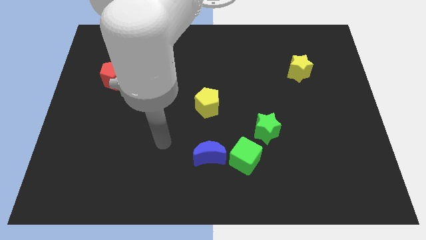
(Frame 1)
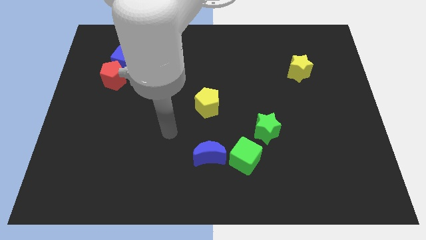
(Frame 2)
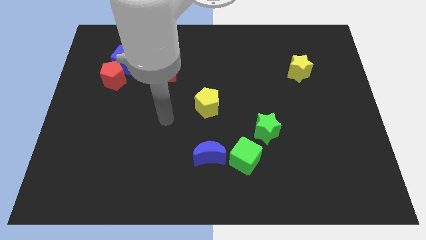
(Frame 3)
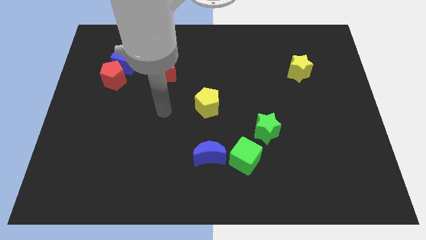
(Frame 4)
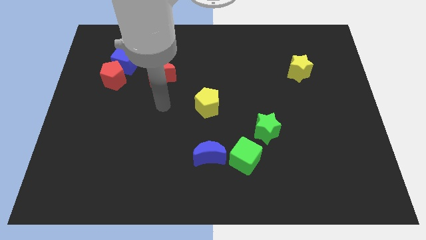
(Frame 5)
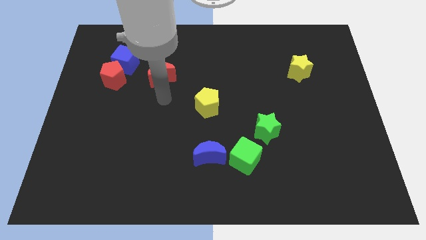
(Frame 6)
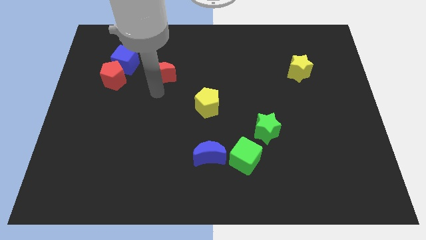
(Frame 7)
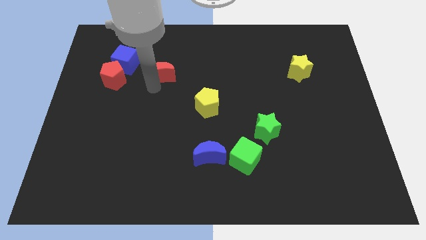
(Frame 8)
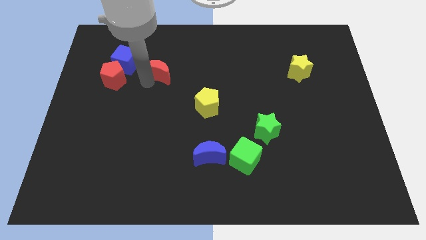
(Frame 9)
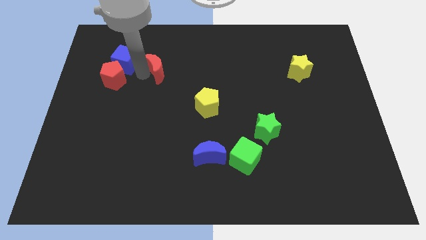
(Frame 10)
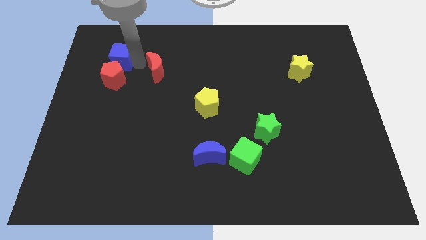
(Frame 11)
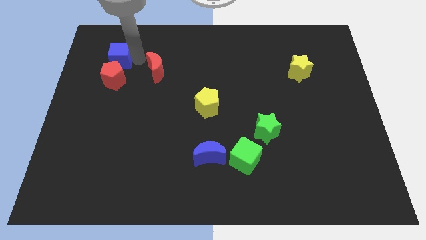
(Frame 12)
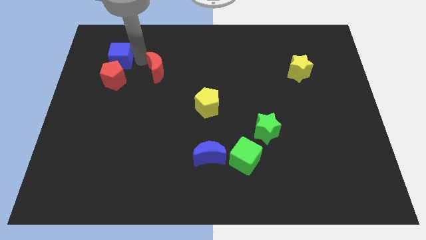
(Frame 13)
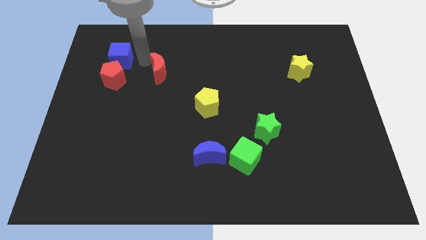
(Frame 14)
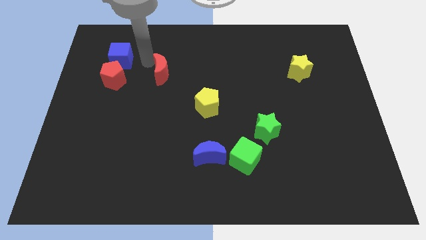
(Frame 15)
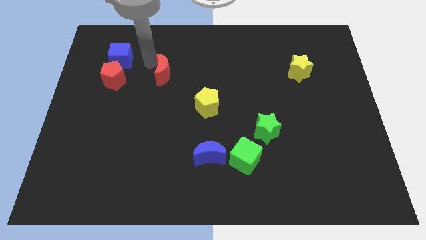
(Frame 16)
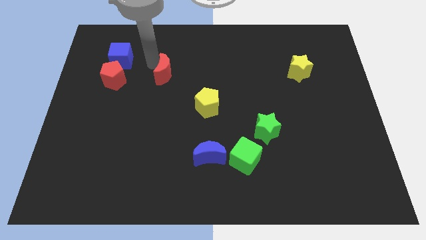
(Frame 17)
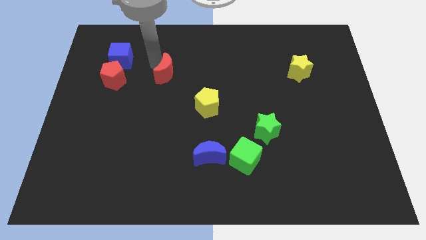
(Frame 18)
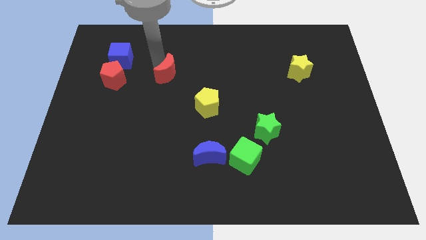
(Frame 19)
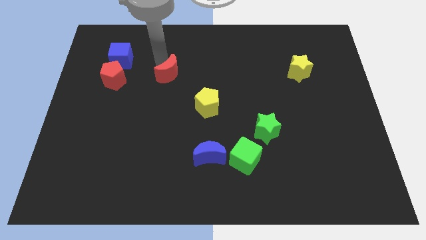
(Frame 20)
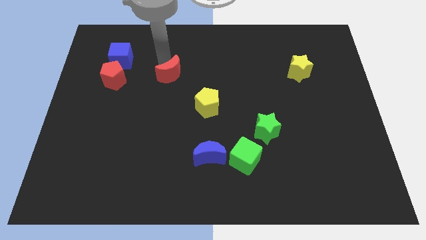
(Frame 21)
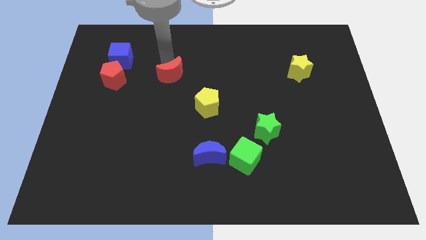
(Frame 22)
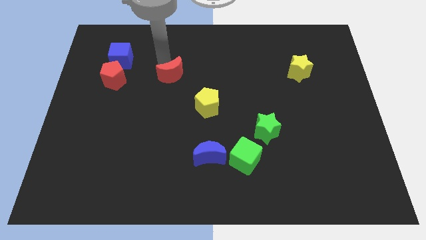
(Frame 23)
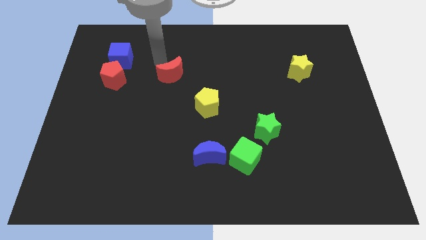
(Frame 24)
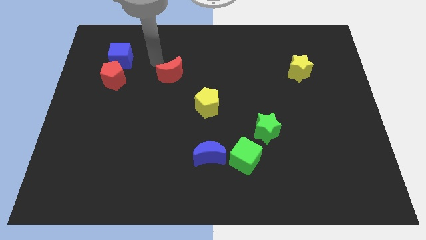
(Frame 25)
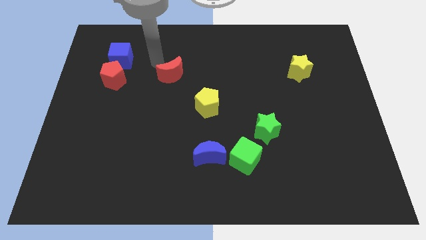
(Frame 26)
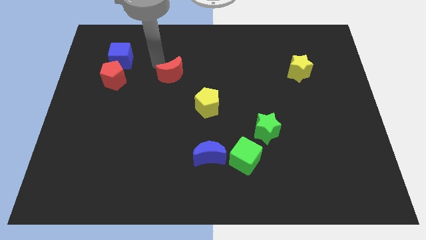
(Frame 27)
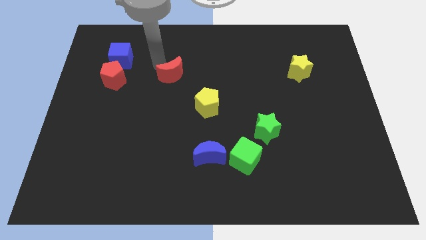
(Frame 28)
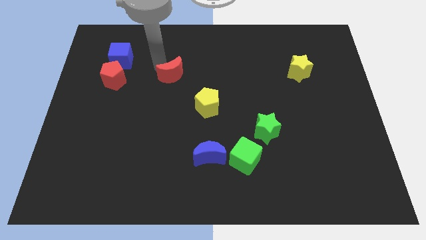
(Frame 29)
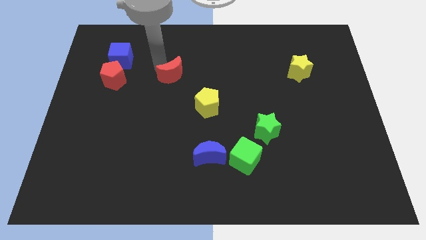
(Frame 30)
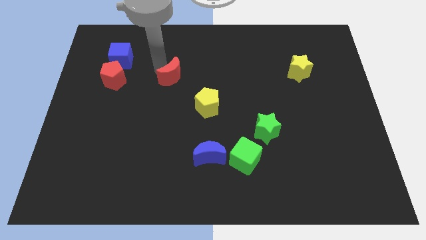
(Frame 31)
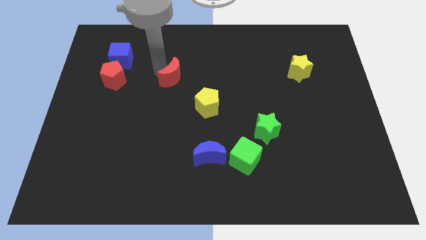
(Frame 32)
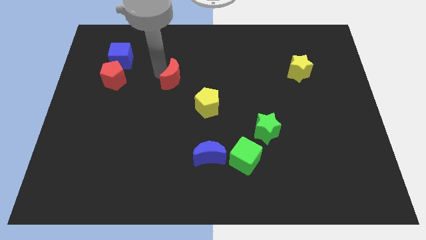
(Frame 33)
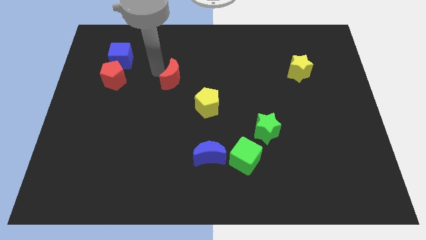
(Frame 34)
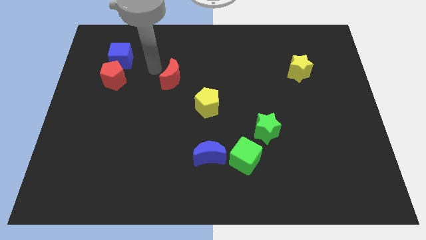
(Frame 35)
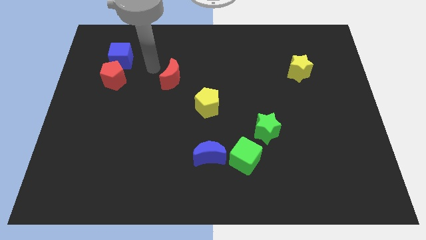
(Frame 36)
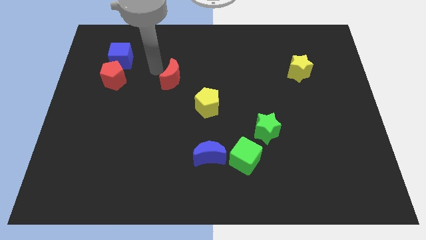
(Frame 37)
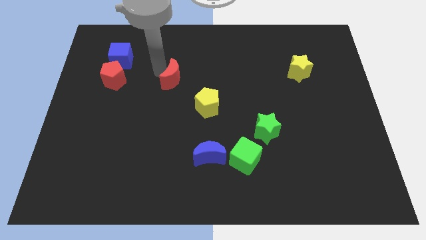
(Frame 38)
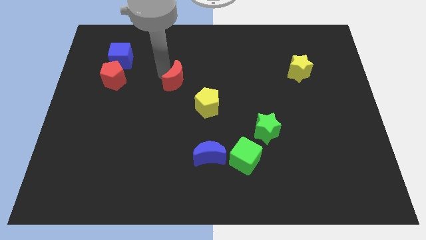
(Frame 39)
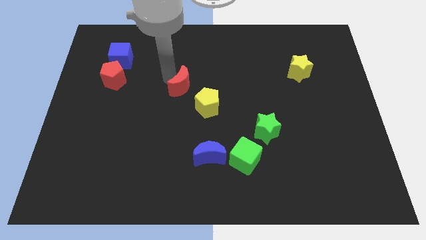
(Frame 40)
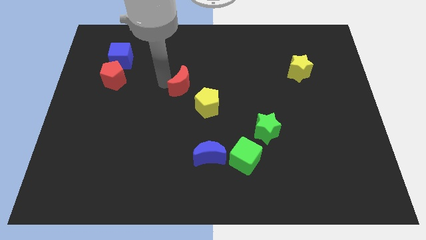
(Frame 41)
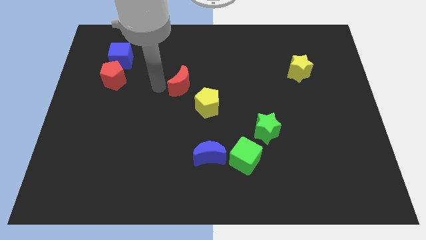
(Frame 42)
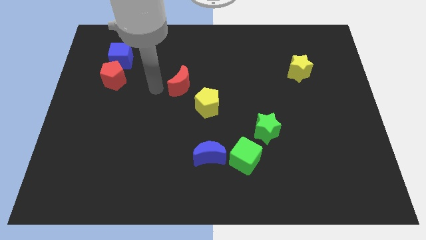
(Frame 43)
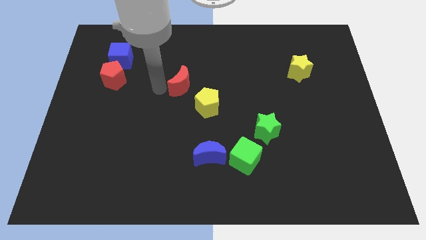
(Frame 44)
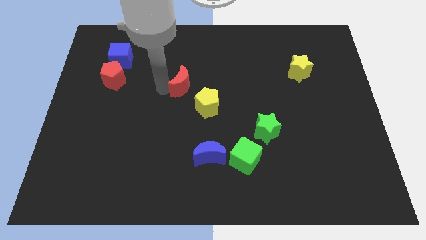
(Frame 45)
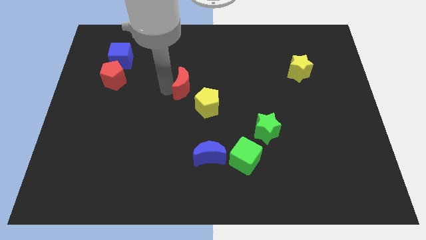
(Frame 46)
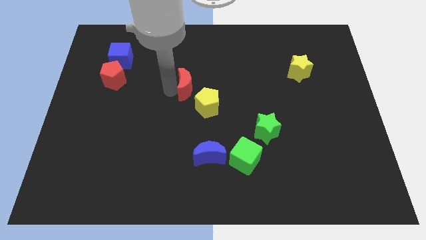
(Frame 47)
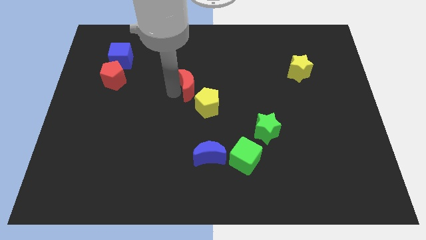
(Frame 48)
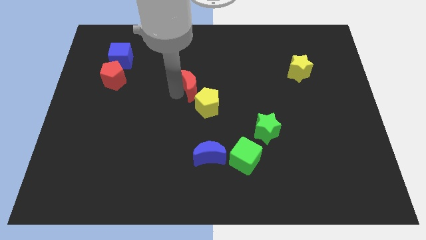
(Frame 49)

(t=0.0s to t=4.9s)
move the red moon a little right

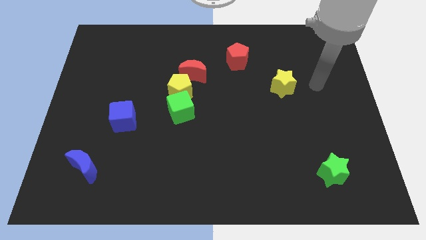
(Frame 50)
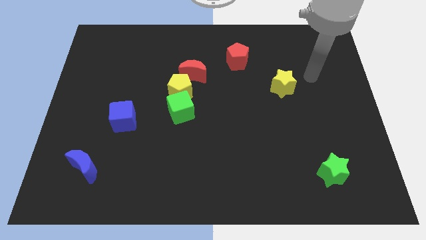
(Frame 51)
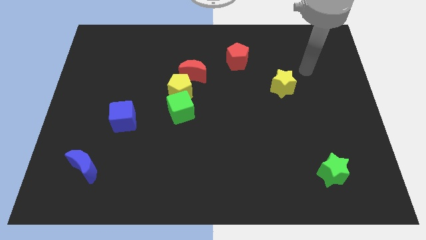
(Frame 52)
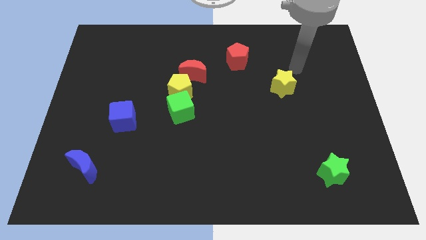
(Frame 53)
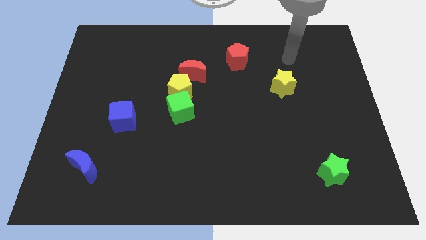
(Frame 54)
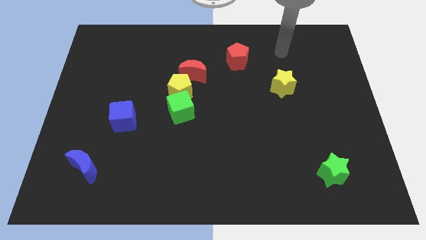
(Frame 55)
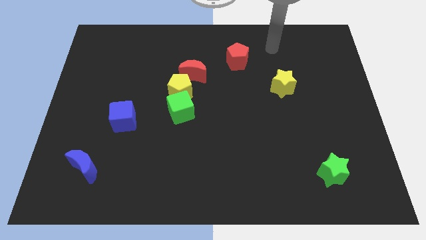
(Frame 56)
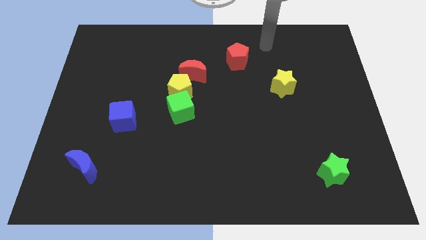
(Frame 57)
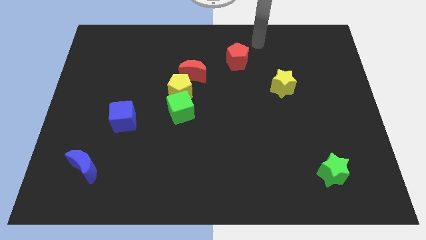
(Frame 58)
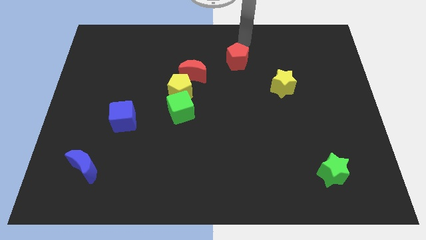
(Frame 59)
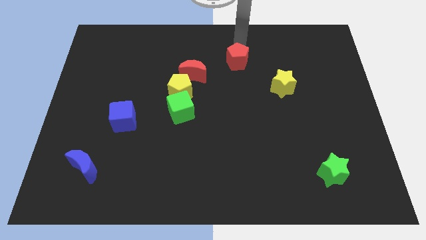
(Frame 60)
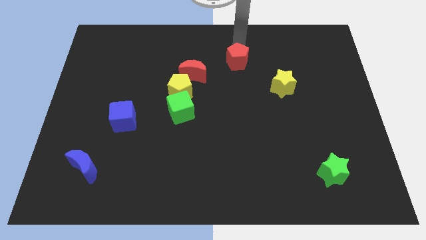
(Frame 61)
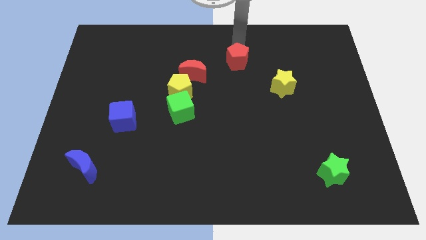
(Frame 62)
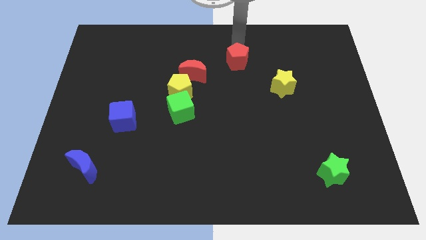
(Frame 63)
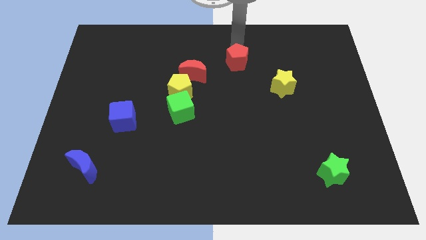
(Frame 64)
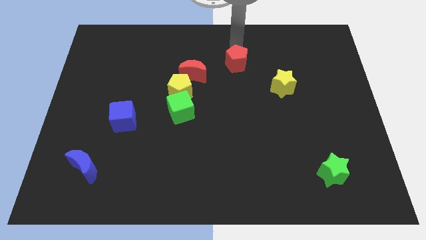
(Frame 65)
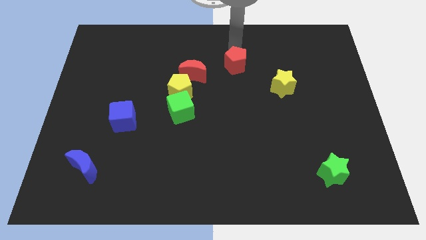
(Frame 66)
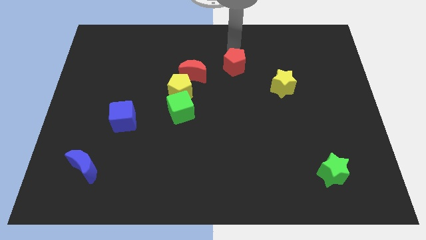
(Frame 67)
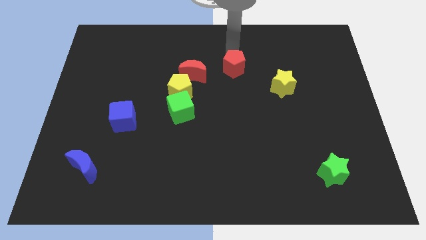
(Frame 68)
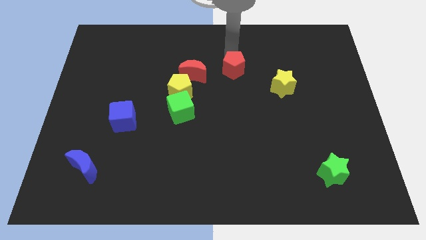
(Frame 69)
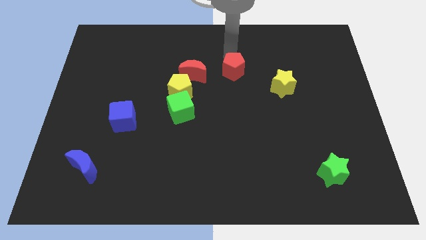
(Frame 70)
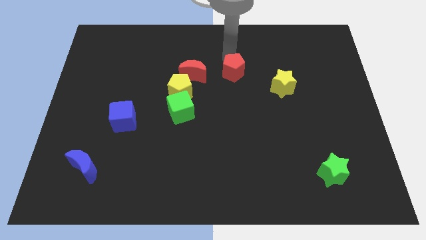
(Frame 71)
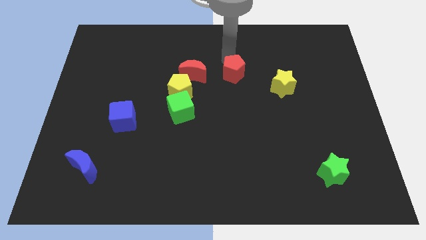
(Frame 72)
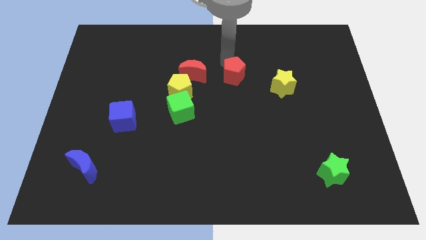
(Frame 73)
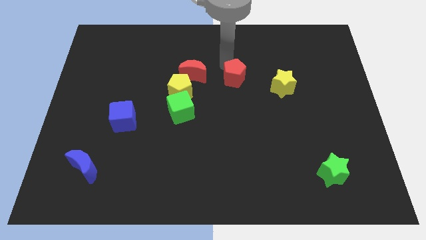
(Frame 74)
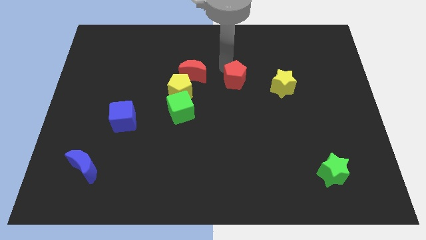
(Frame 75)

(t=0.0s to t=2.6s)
push the red pentagon somewhat down

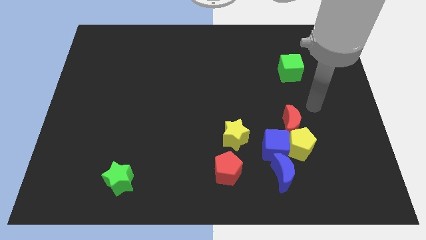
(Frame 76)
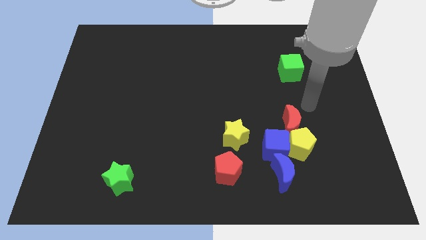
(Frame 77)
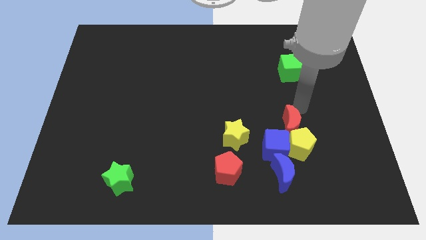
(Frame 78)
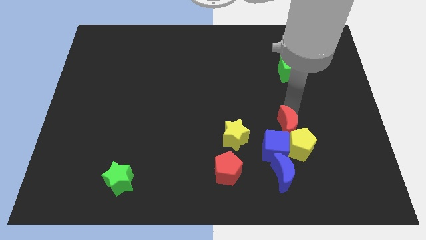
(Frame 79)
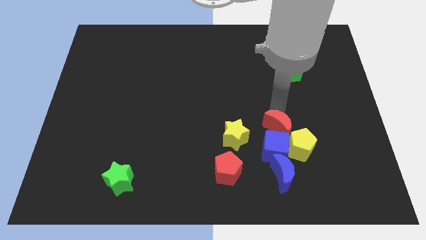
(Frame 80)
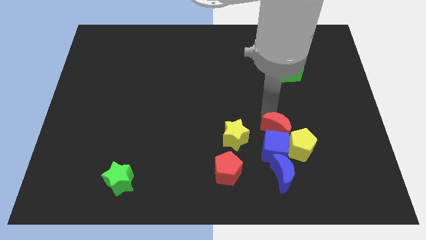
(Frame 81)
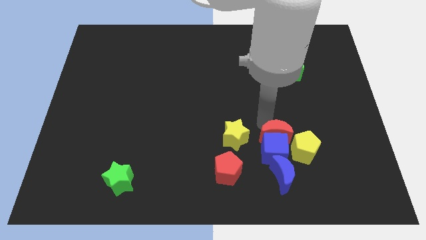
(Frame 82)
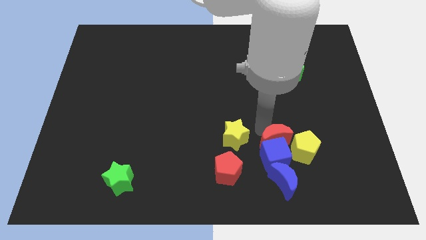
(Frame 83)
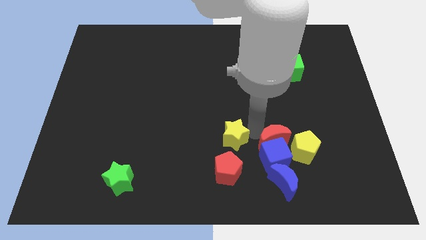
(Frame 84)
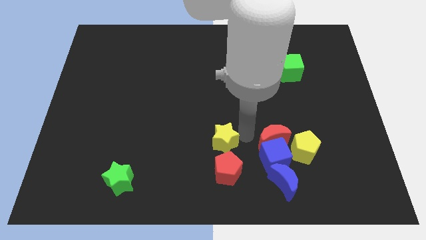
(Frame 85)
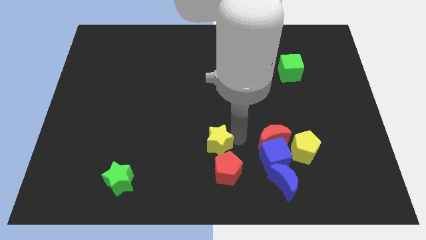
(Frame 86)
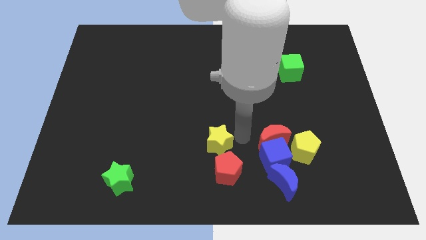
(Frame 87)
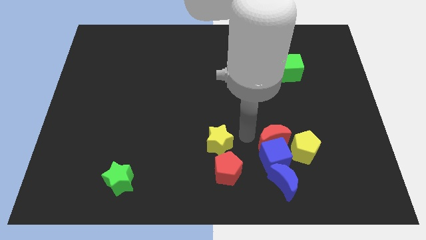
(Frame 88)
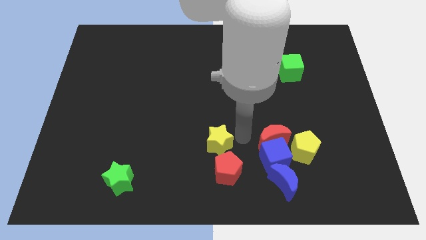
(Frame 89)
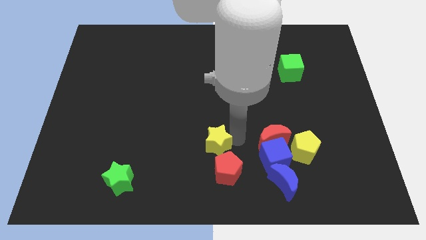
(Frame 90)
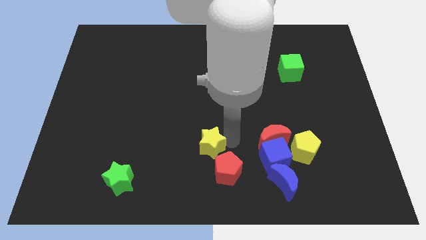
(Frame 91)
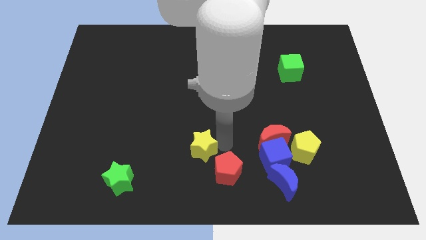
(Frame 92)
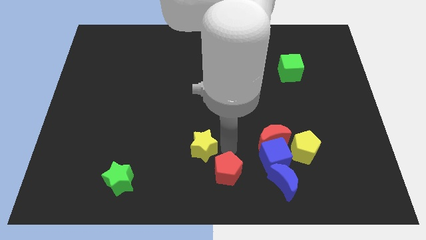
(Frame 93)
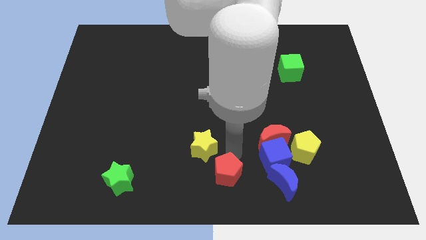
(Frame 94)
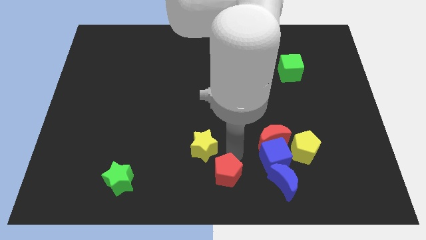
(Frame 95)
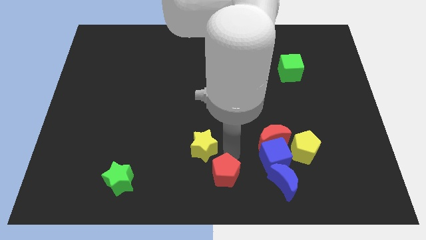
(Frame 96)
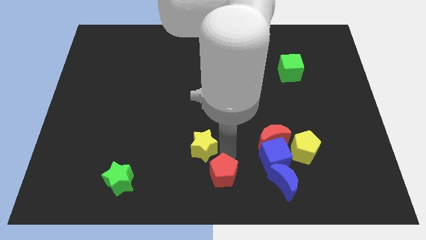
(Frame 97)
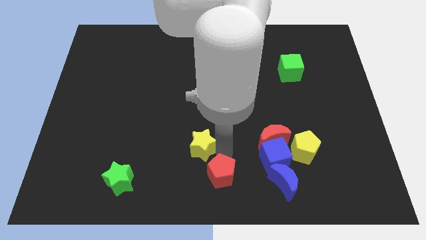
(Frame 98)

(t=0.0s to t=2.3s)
slide the yellow star to the left a little bit
